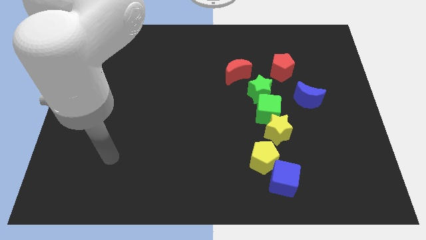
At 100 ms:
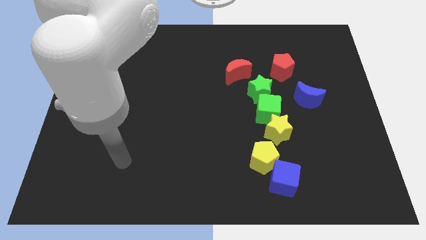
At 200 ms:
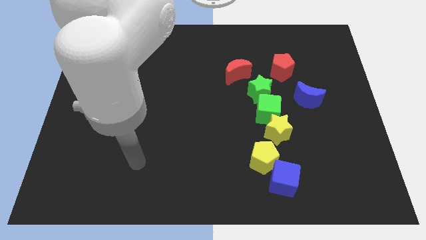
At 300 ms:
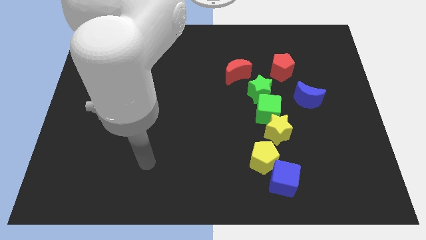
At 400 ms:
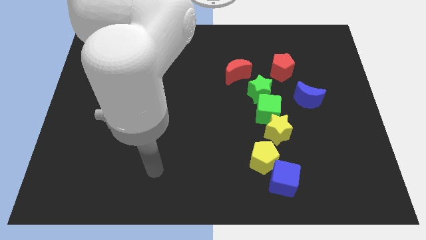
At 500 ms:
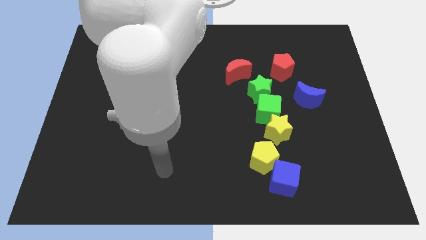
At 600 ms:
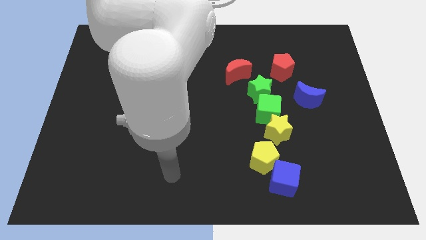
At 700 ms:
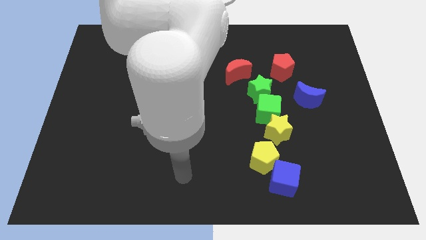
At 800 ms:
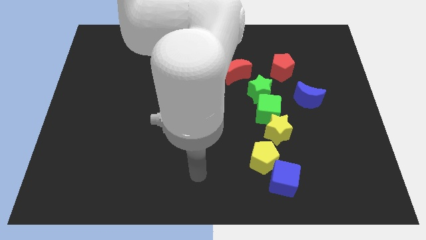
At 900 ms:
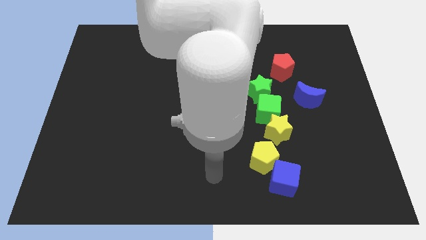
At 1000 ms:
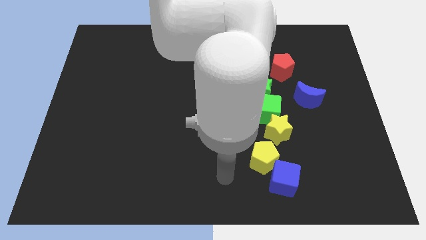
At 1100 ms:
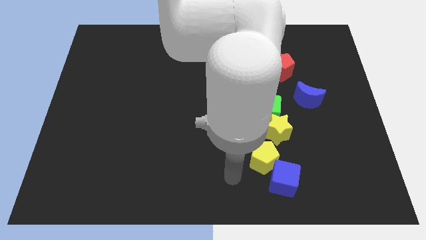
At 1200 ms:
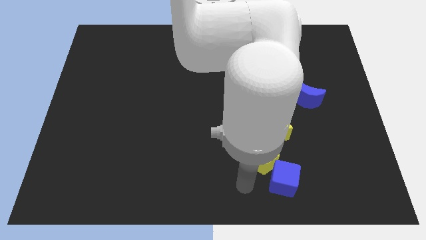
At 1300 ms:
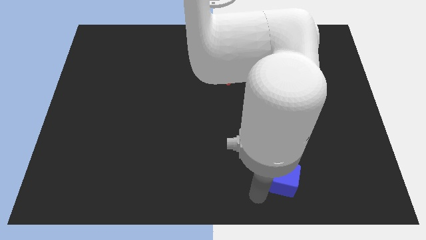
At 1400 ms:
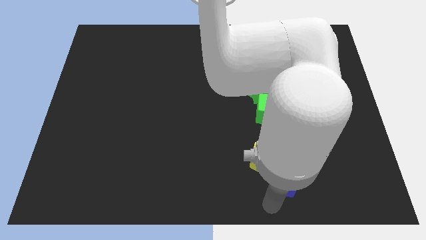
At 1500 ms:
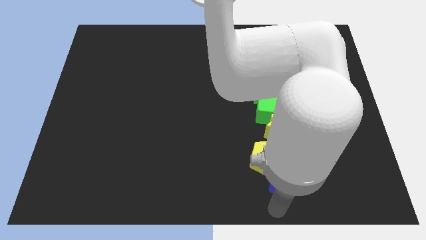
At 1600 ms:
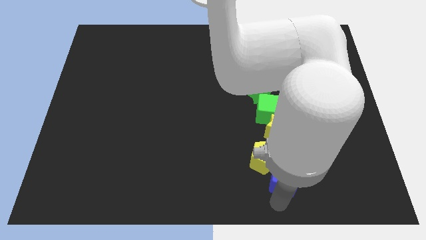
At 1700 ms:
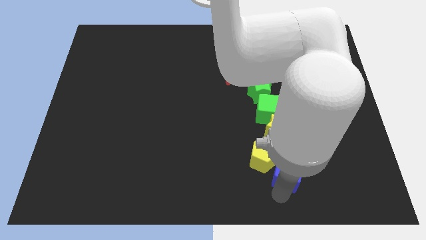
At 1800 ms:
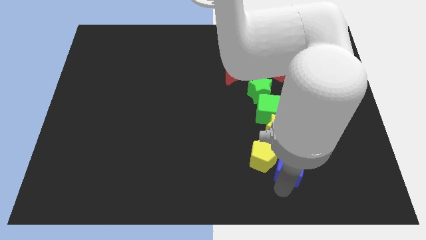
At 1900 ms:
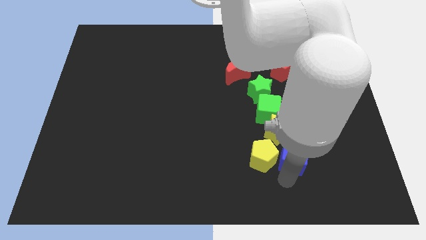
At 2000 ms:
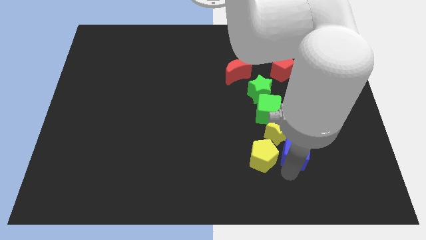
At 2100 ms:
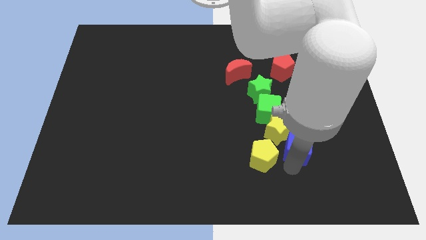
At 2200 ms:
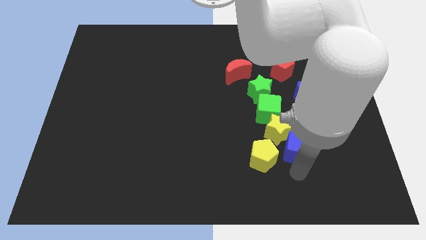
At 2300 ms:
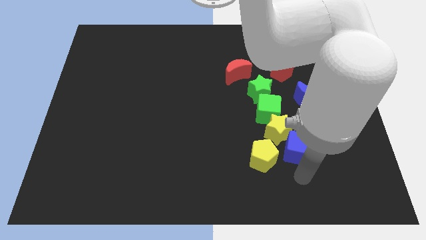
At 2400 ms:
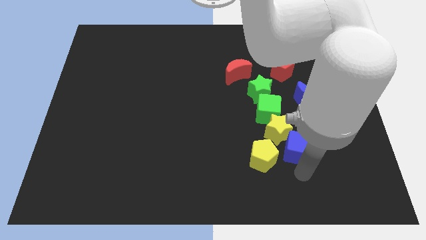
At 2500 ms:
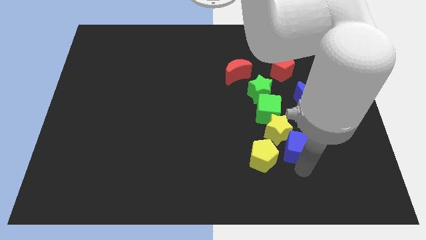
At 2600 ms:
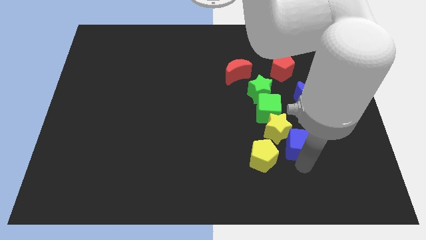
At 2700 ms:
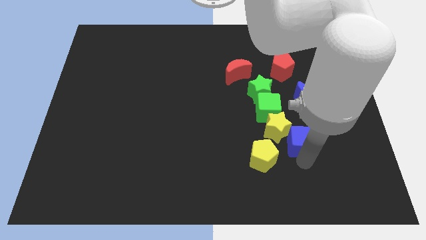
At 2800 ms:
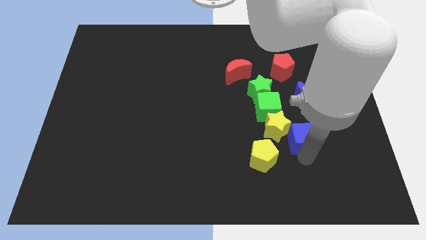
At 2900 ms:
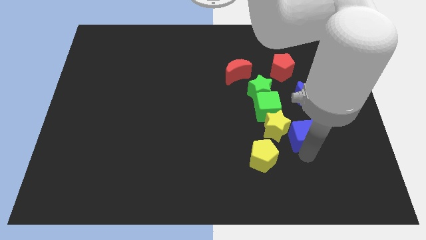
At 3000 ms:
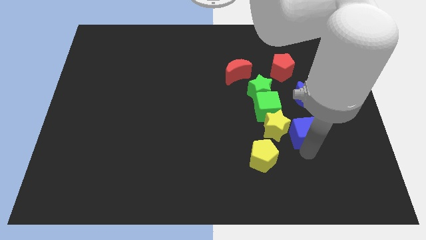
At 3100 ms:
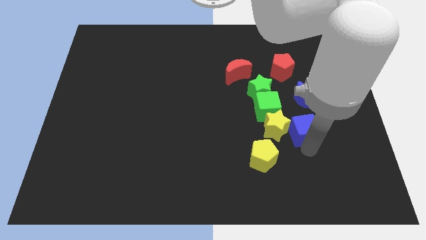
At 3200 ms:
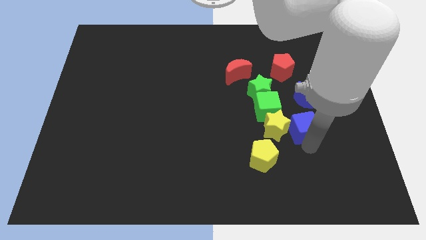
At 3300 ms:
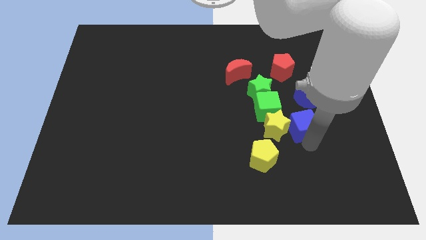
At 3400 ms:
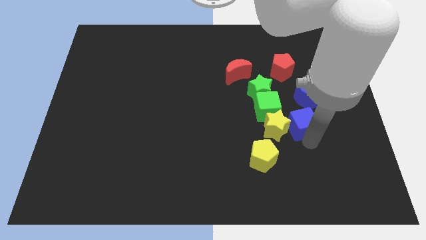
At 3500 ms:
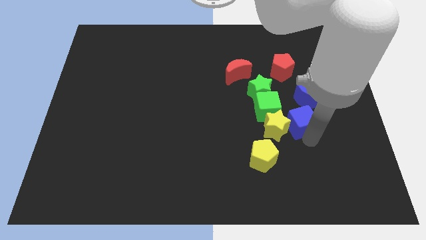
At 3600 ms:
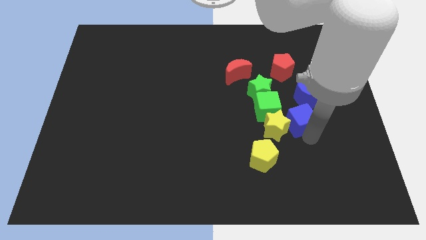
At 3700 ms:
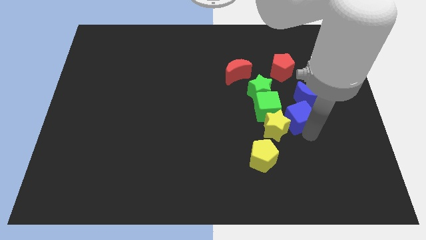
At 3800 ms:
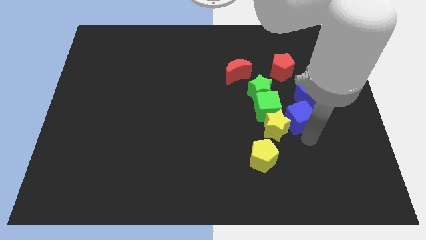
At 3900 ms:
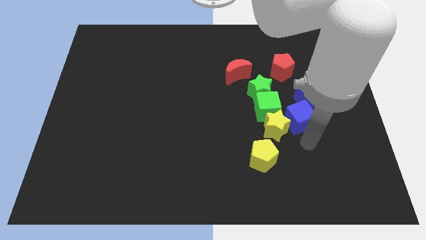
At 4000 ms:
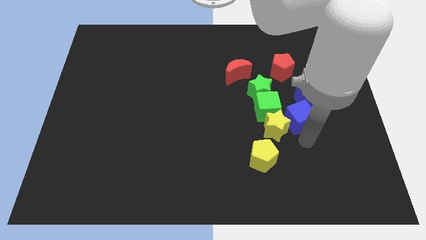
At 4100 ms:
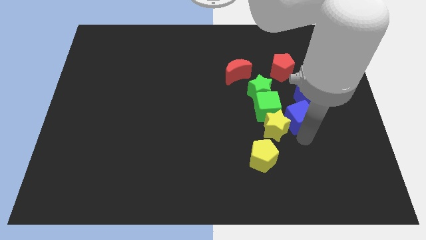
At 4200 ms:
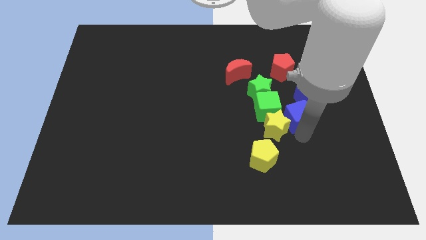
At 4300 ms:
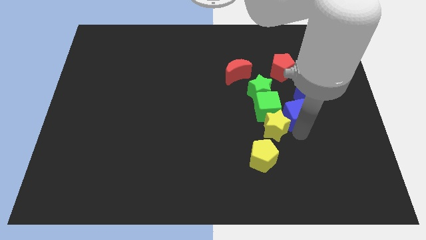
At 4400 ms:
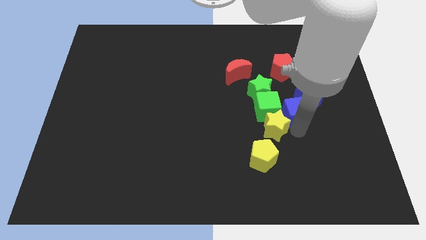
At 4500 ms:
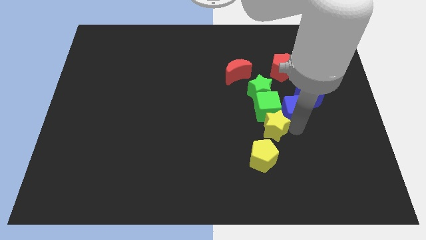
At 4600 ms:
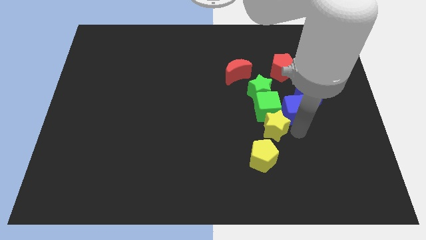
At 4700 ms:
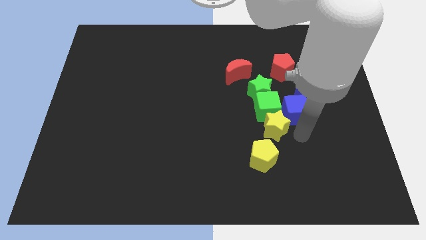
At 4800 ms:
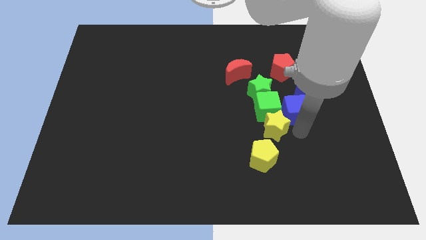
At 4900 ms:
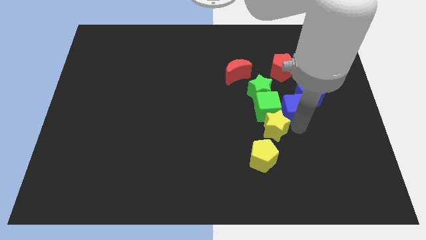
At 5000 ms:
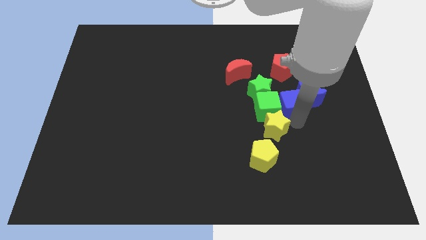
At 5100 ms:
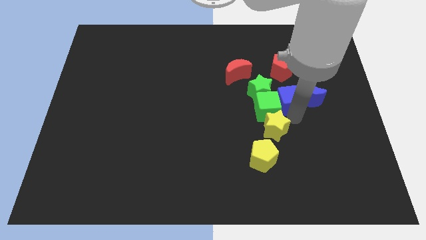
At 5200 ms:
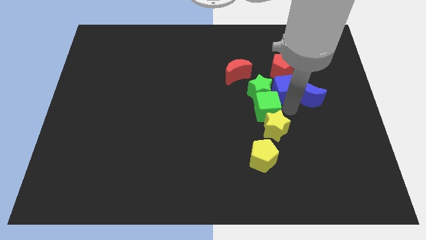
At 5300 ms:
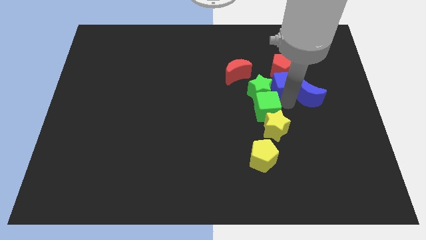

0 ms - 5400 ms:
slide the blue cube to the red pentagon

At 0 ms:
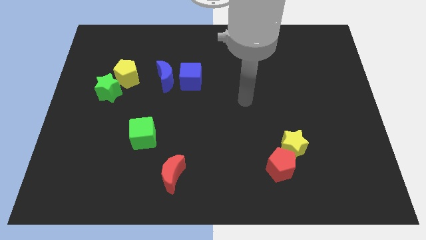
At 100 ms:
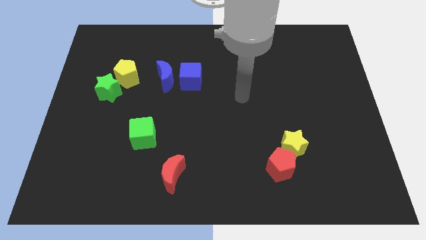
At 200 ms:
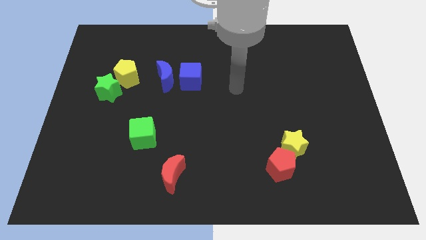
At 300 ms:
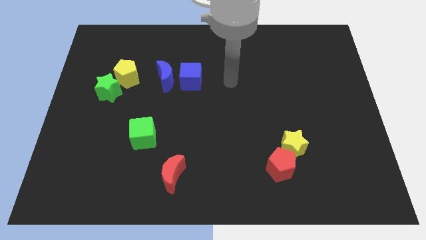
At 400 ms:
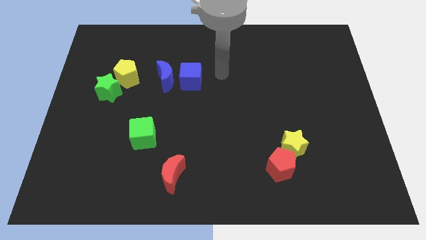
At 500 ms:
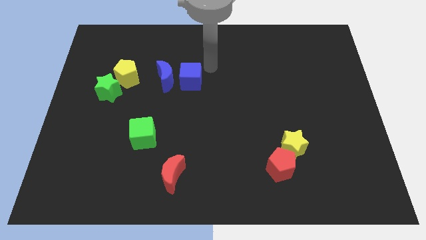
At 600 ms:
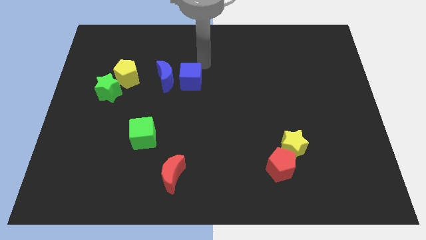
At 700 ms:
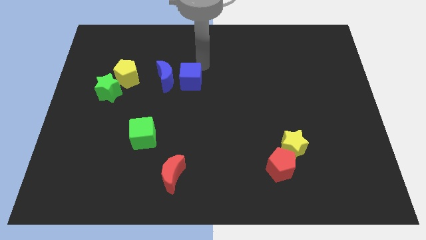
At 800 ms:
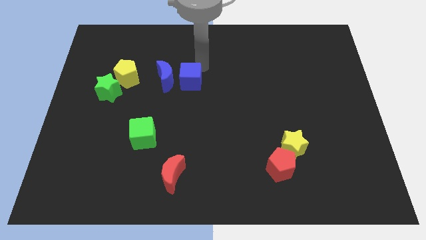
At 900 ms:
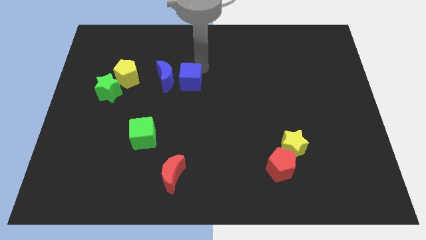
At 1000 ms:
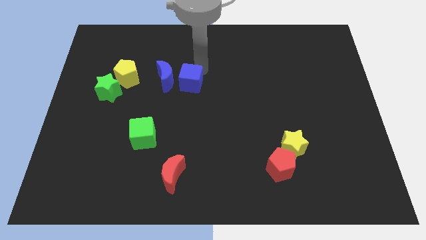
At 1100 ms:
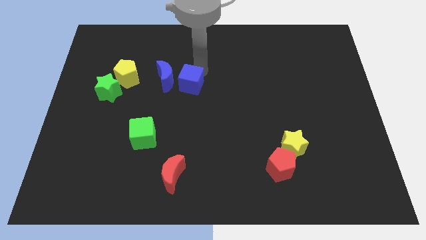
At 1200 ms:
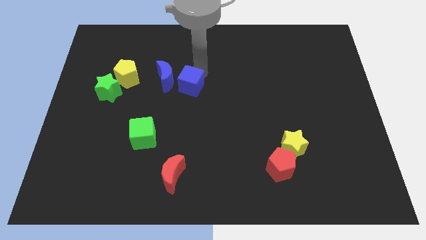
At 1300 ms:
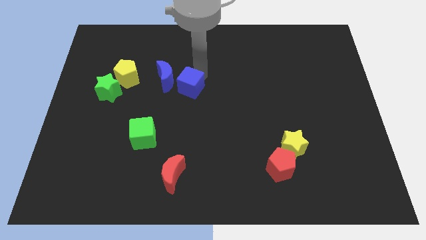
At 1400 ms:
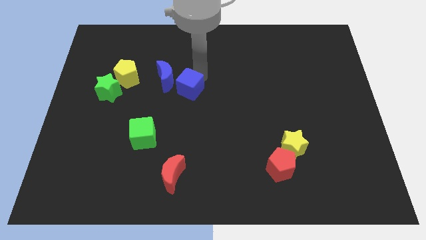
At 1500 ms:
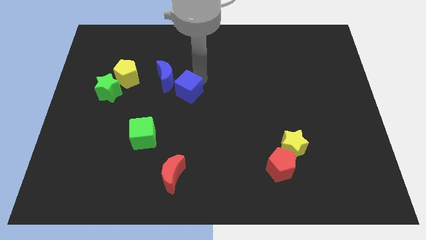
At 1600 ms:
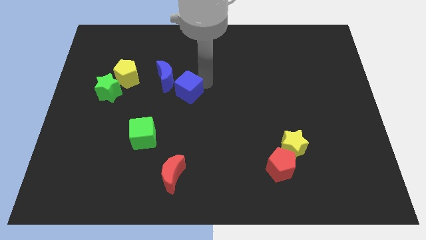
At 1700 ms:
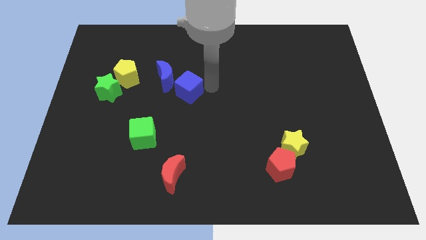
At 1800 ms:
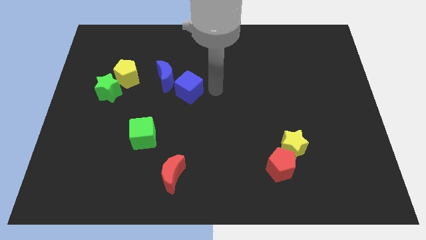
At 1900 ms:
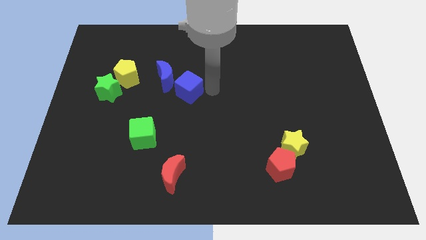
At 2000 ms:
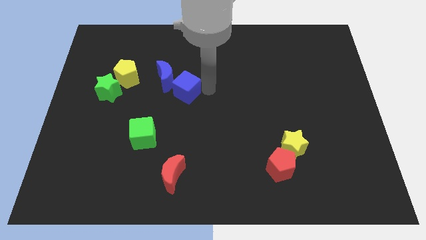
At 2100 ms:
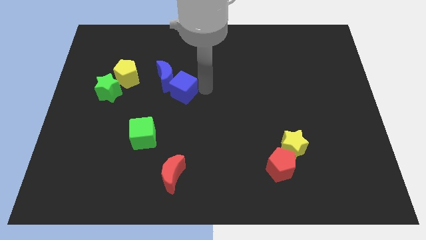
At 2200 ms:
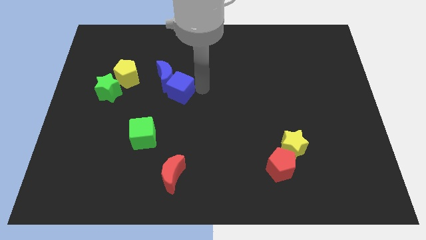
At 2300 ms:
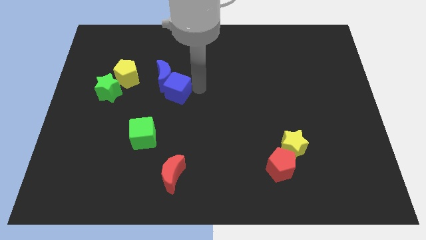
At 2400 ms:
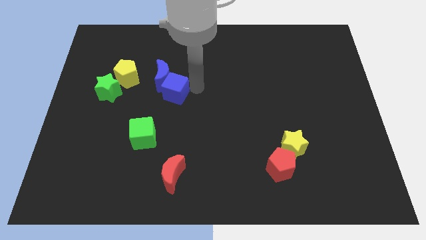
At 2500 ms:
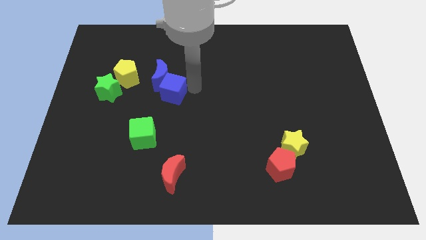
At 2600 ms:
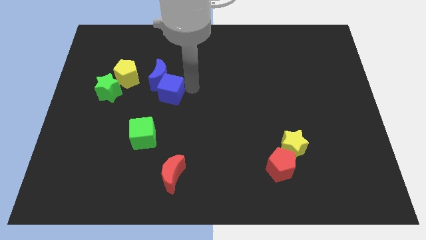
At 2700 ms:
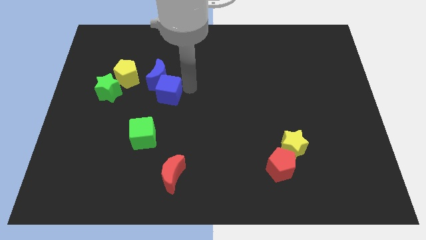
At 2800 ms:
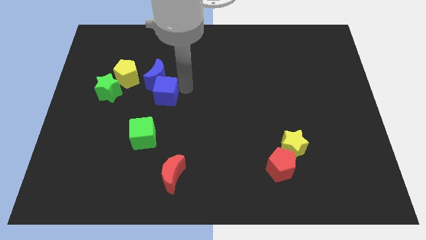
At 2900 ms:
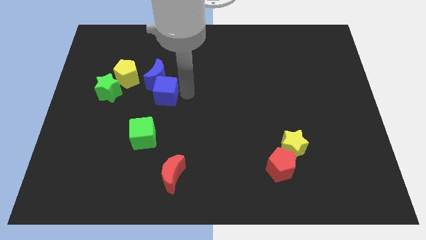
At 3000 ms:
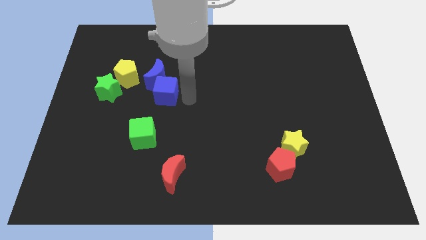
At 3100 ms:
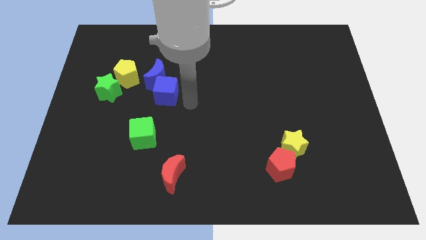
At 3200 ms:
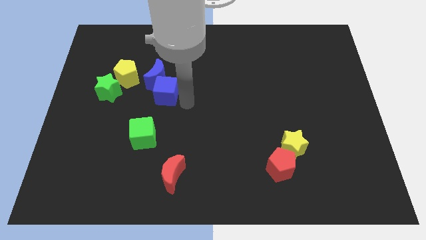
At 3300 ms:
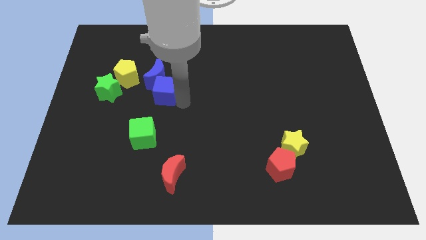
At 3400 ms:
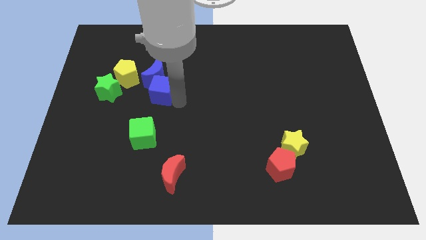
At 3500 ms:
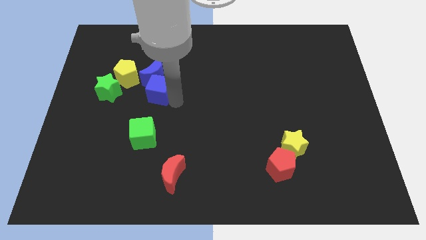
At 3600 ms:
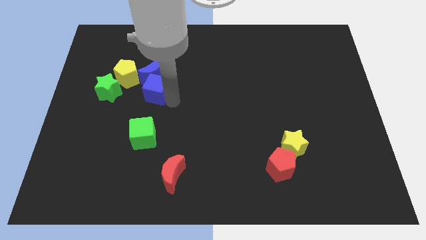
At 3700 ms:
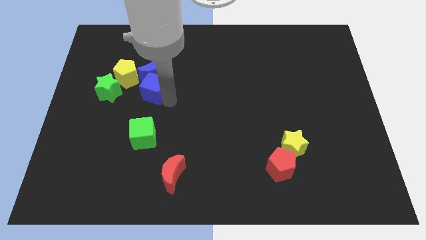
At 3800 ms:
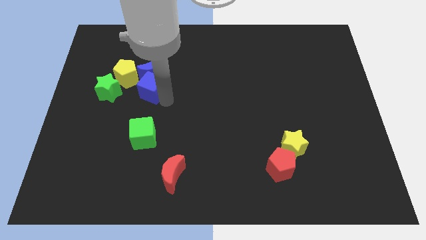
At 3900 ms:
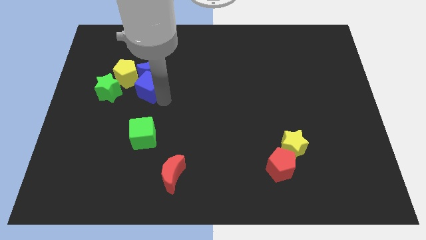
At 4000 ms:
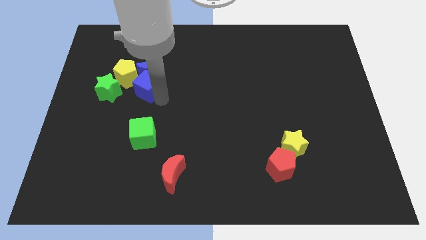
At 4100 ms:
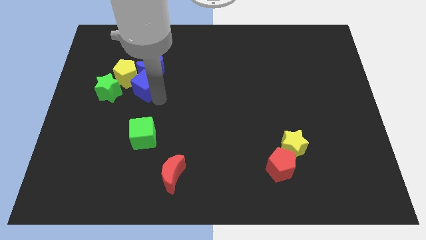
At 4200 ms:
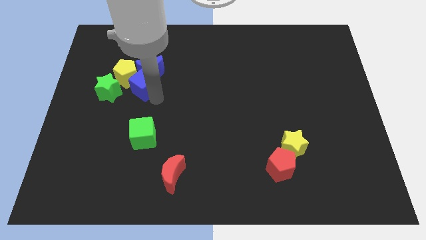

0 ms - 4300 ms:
slide the blue cube close to the yellow pentagon
